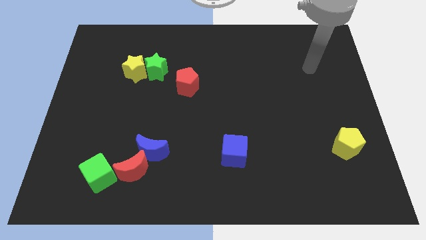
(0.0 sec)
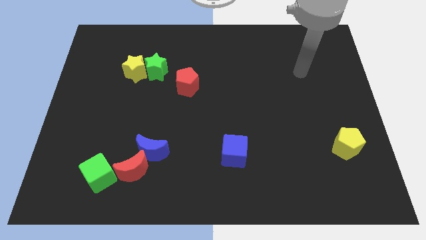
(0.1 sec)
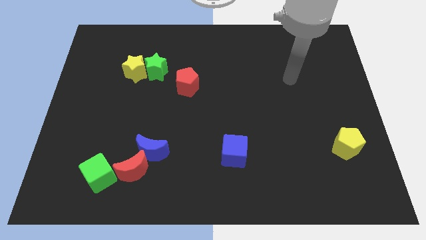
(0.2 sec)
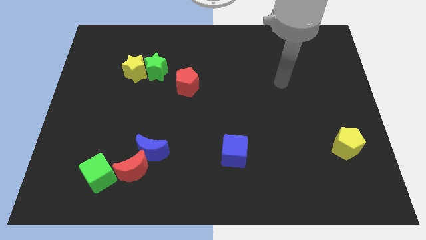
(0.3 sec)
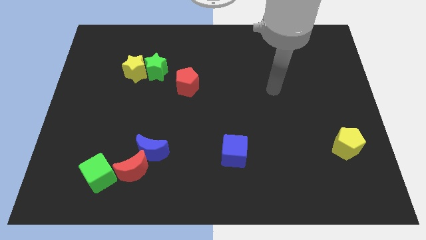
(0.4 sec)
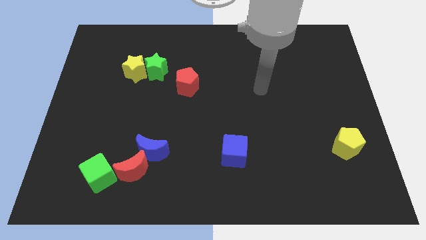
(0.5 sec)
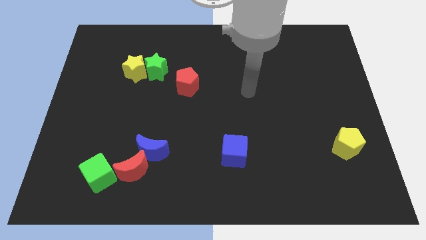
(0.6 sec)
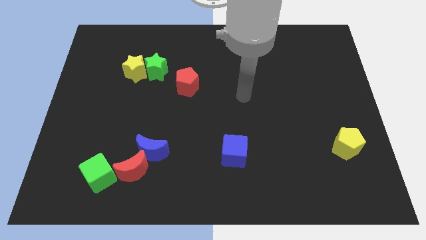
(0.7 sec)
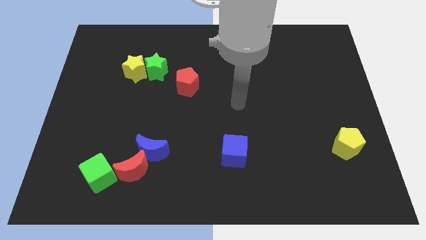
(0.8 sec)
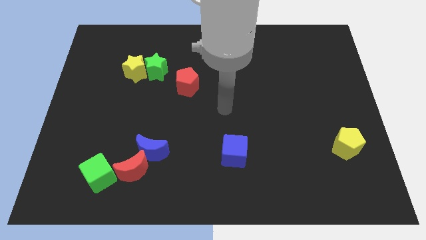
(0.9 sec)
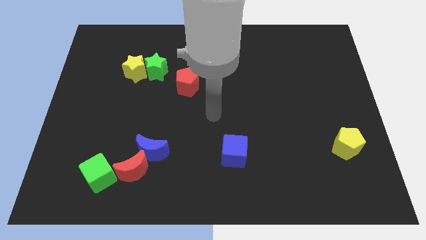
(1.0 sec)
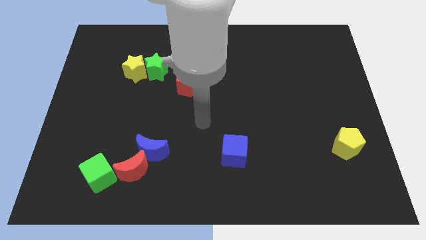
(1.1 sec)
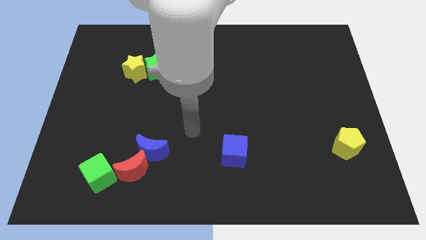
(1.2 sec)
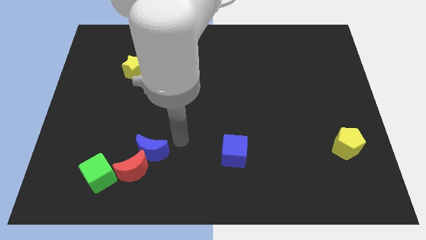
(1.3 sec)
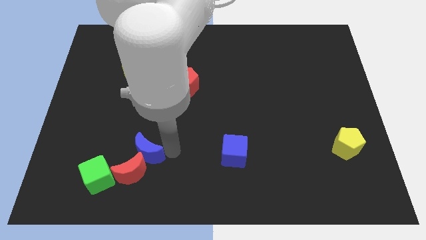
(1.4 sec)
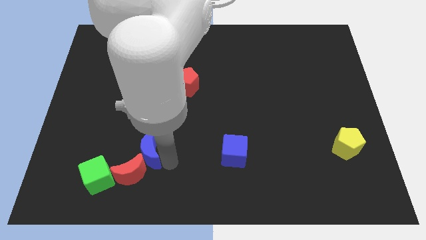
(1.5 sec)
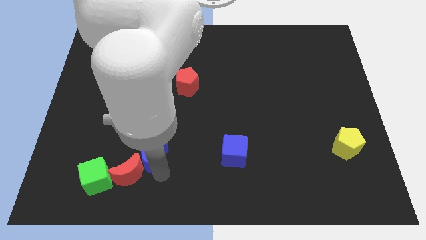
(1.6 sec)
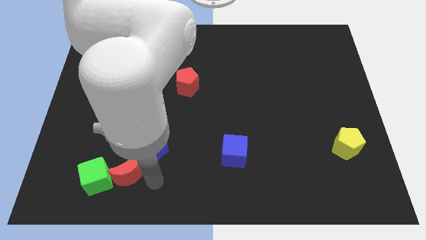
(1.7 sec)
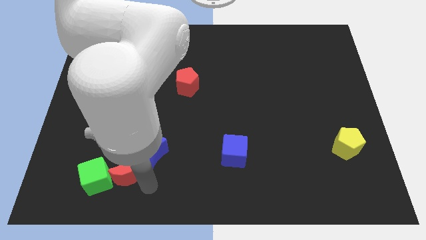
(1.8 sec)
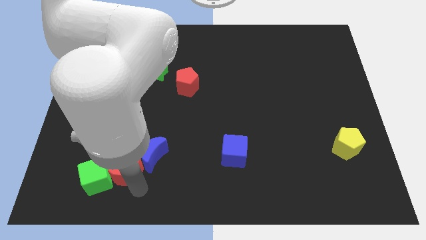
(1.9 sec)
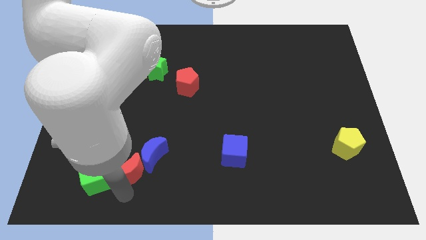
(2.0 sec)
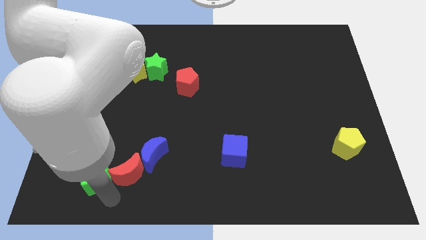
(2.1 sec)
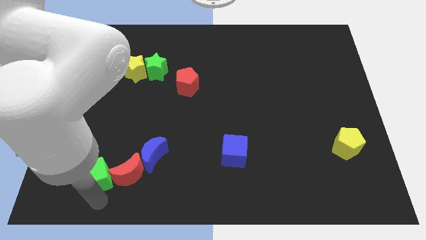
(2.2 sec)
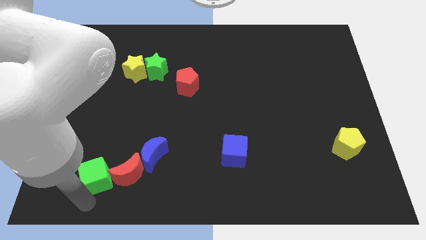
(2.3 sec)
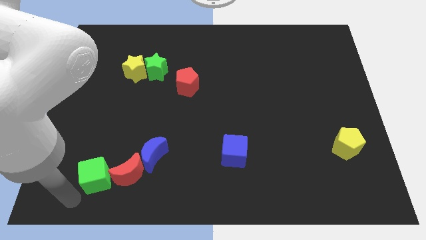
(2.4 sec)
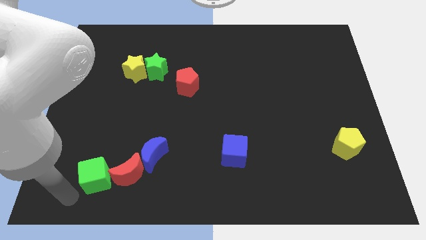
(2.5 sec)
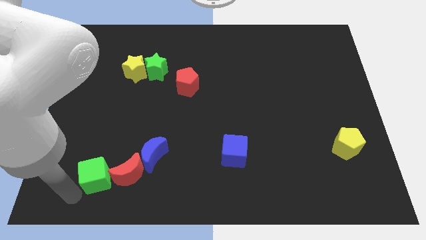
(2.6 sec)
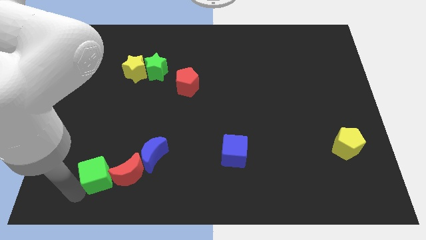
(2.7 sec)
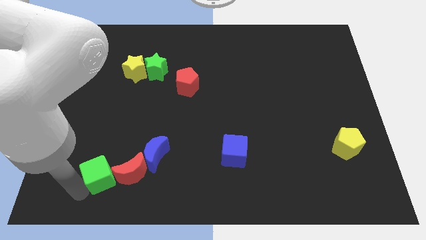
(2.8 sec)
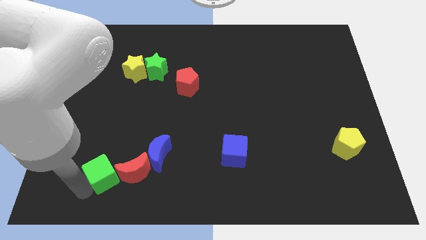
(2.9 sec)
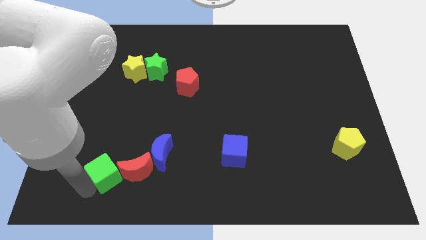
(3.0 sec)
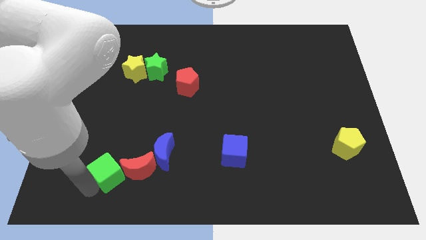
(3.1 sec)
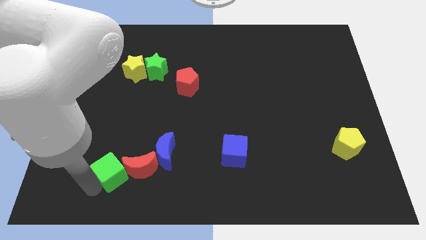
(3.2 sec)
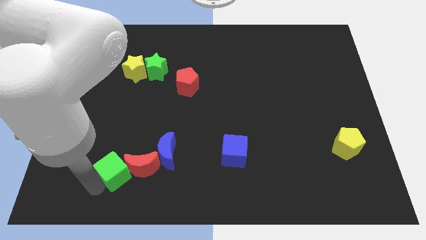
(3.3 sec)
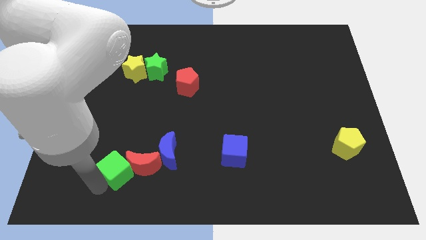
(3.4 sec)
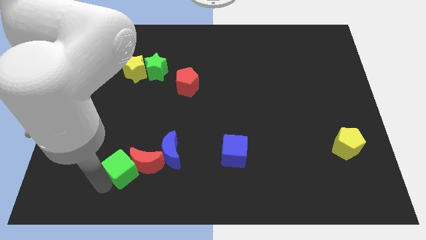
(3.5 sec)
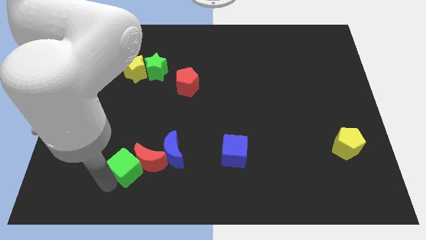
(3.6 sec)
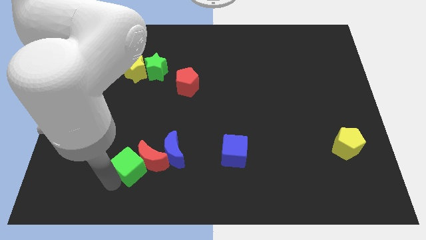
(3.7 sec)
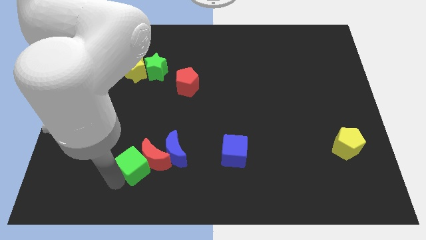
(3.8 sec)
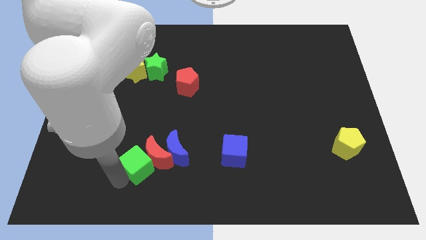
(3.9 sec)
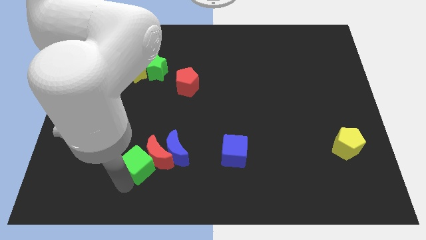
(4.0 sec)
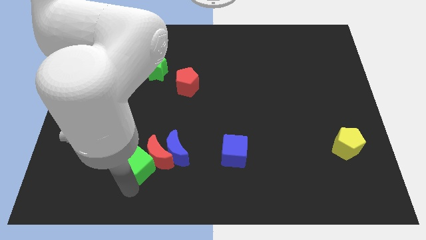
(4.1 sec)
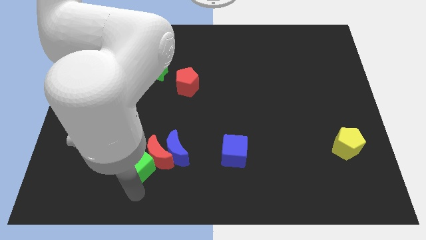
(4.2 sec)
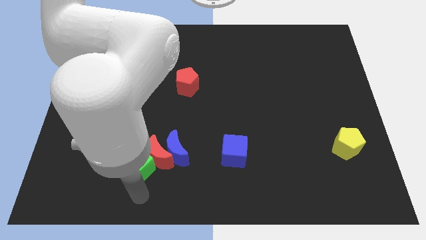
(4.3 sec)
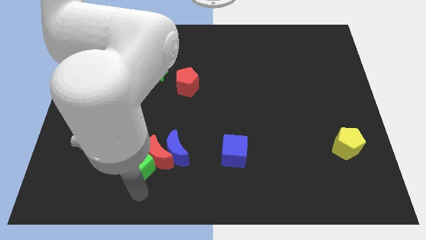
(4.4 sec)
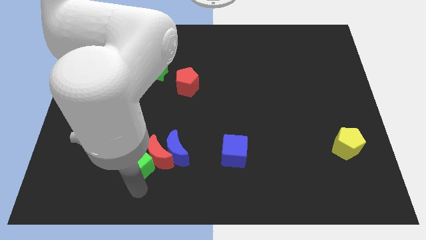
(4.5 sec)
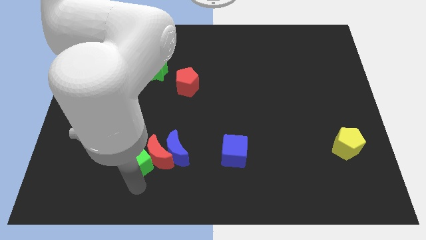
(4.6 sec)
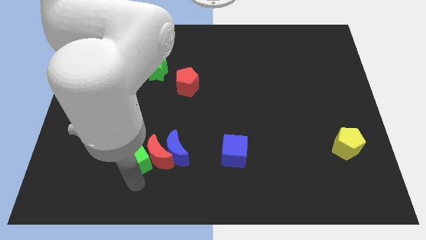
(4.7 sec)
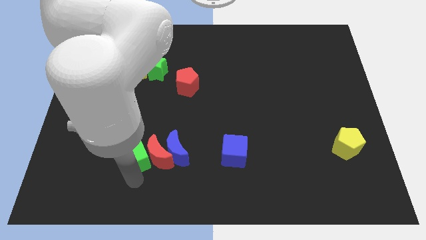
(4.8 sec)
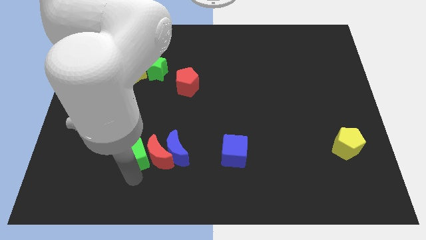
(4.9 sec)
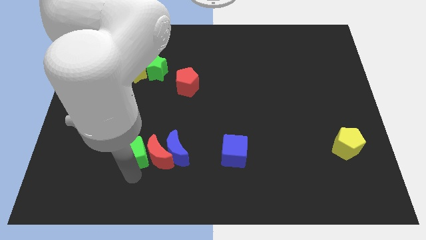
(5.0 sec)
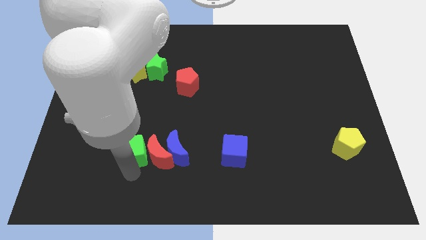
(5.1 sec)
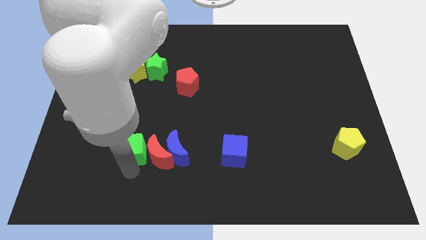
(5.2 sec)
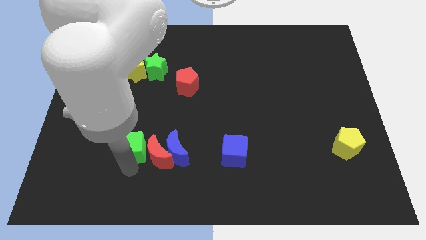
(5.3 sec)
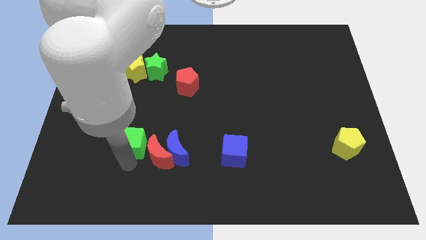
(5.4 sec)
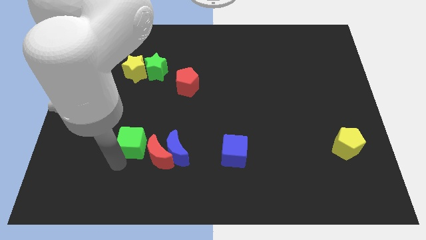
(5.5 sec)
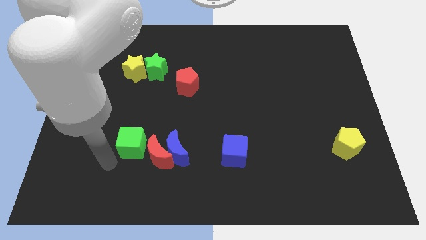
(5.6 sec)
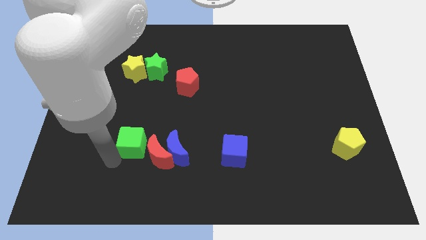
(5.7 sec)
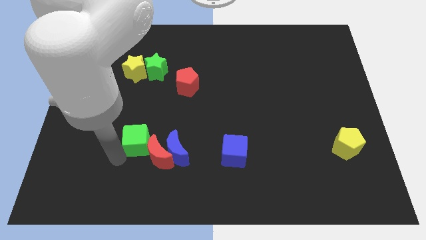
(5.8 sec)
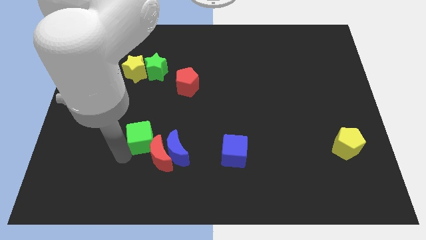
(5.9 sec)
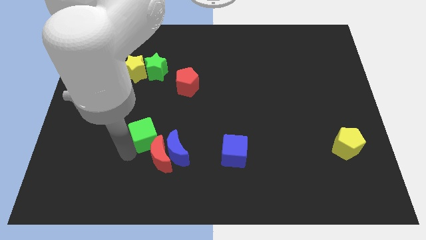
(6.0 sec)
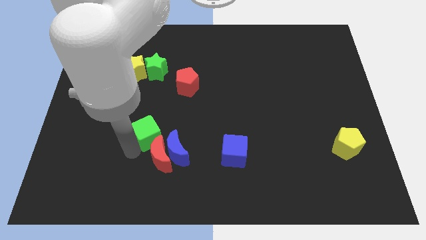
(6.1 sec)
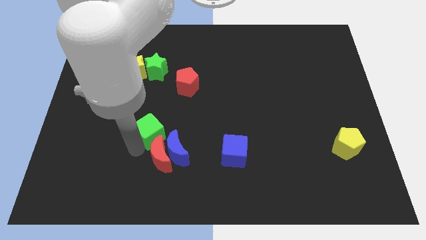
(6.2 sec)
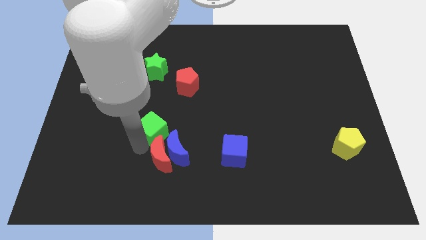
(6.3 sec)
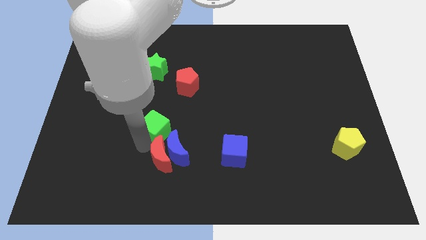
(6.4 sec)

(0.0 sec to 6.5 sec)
push the green cube to the top of the blue moon
